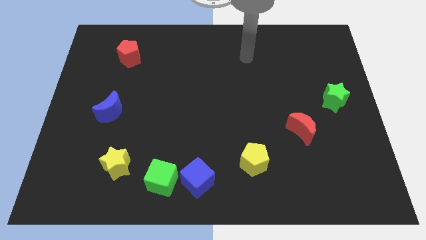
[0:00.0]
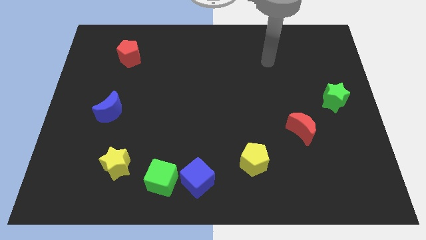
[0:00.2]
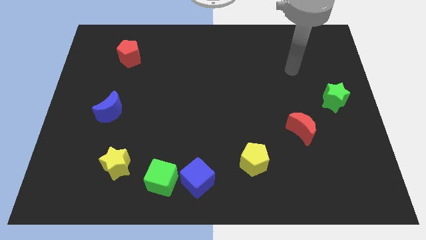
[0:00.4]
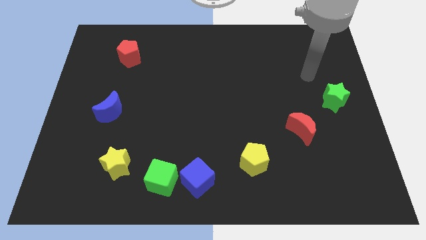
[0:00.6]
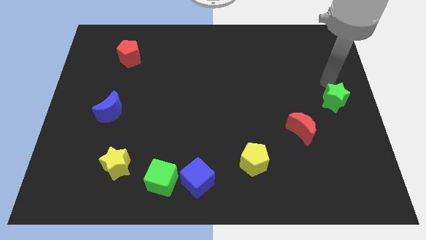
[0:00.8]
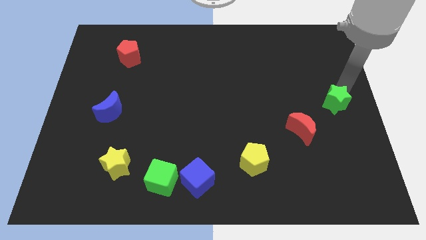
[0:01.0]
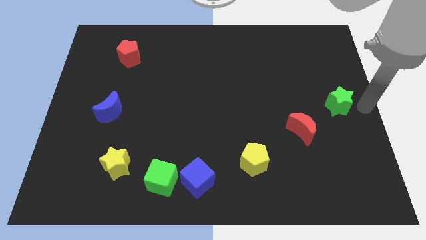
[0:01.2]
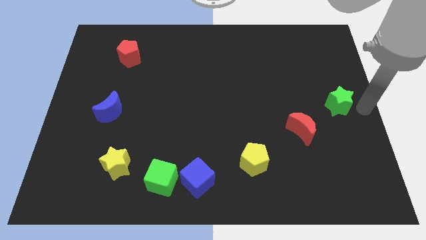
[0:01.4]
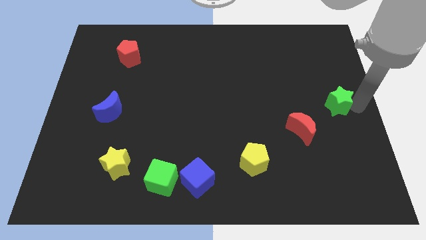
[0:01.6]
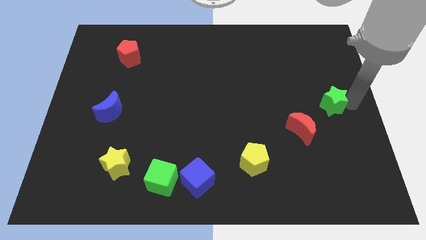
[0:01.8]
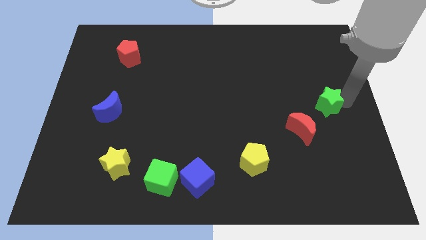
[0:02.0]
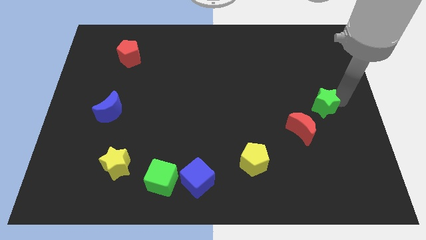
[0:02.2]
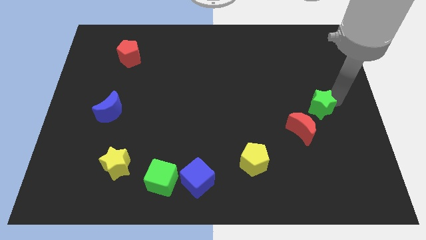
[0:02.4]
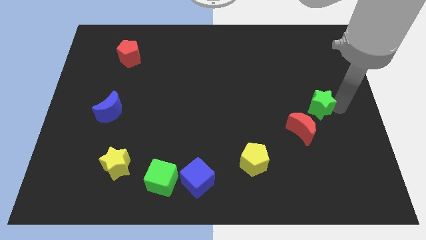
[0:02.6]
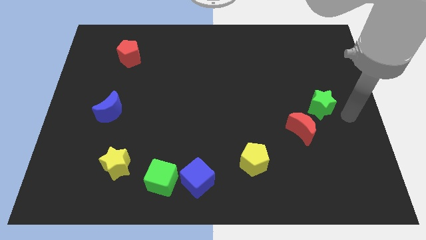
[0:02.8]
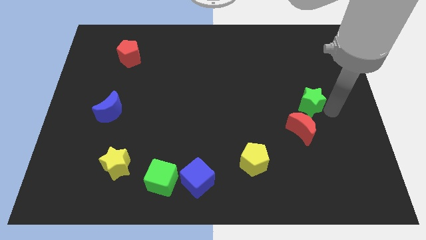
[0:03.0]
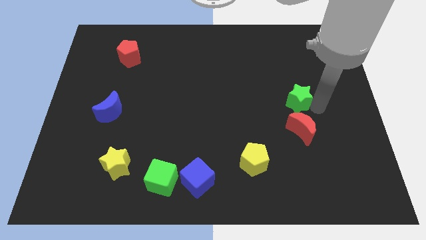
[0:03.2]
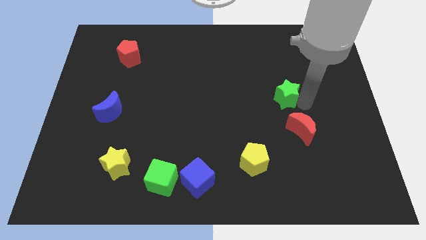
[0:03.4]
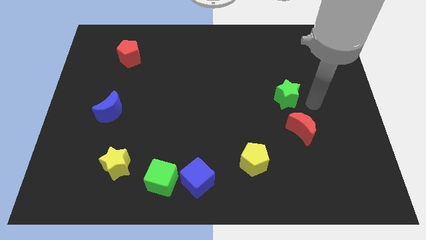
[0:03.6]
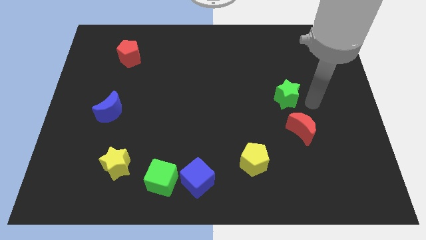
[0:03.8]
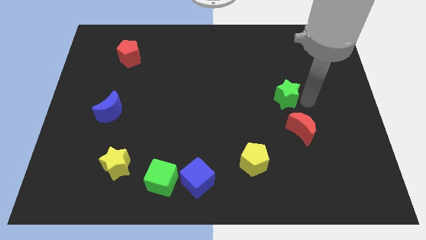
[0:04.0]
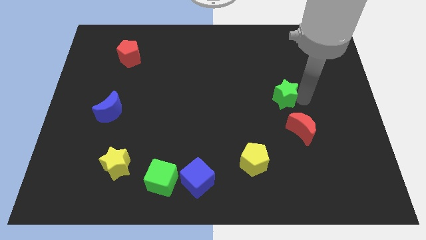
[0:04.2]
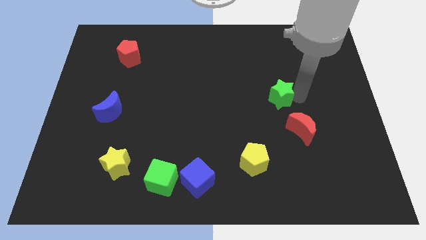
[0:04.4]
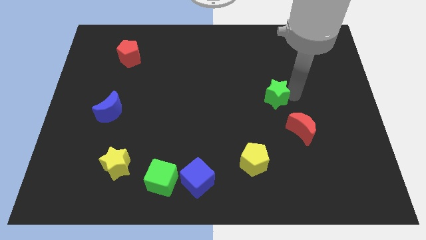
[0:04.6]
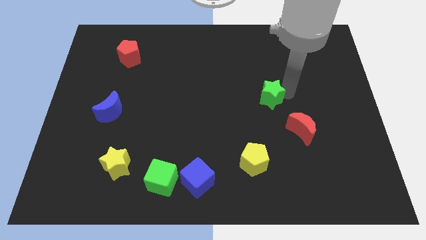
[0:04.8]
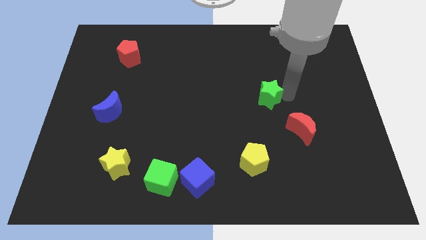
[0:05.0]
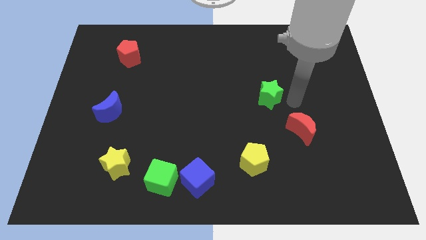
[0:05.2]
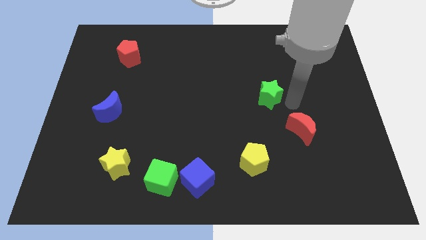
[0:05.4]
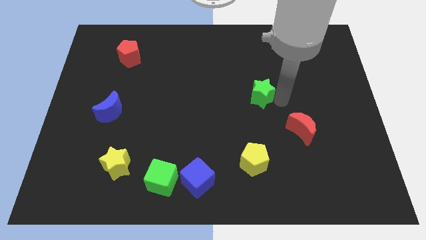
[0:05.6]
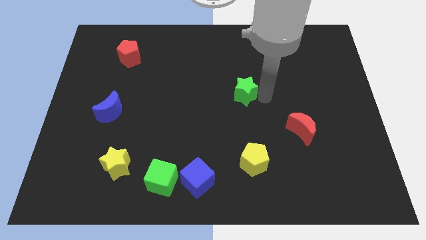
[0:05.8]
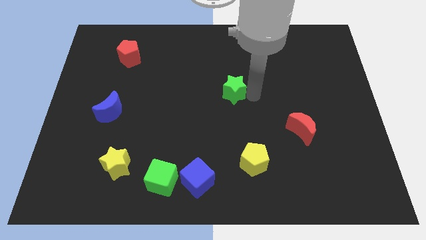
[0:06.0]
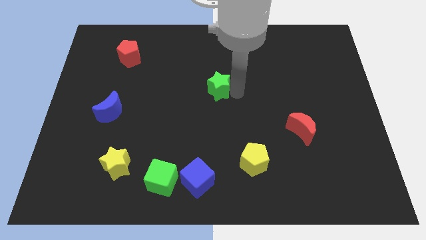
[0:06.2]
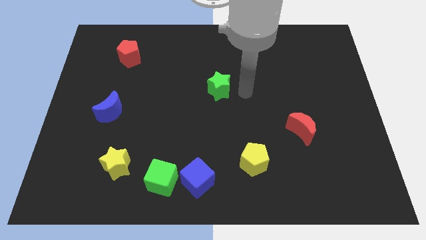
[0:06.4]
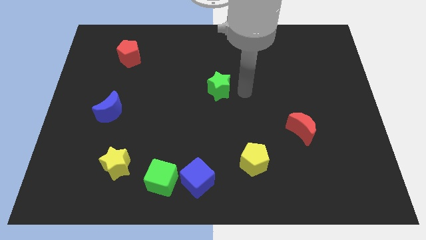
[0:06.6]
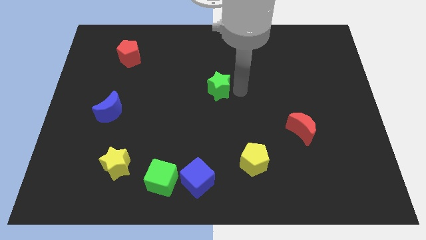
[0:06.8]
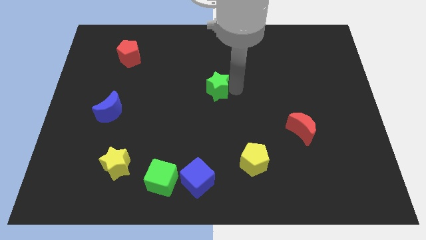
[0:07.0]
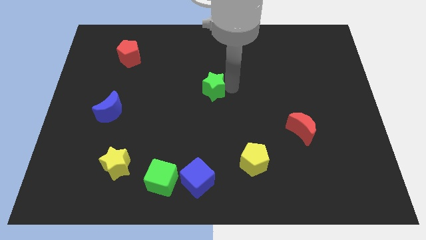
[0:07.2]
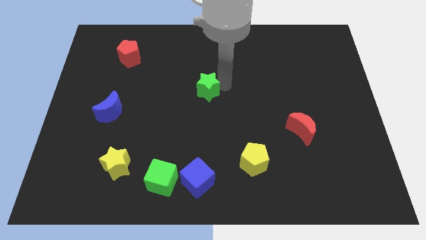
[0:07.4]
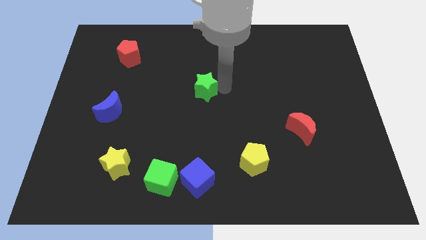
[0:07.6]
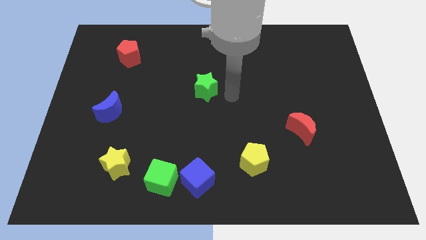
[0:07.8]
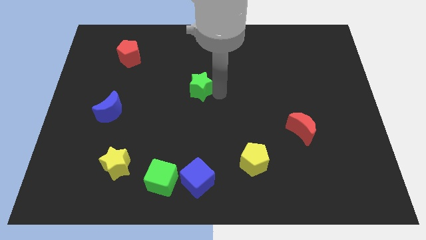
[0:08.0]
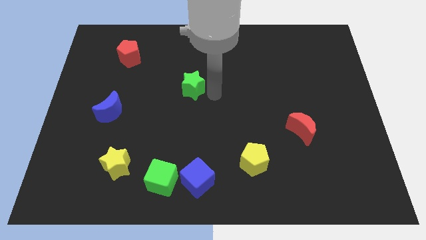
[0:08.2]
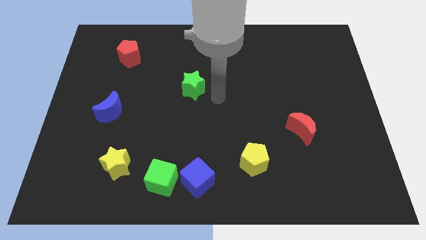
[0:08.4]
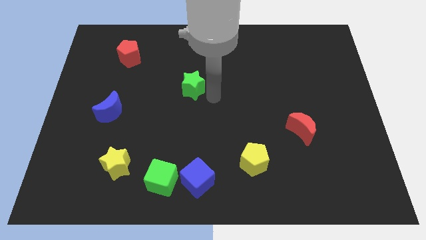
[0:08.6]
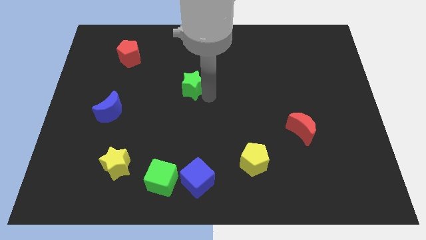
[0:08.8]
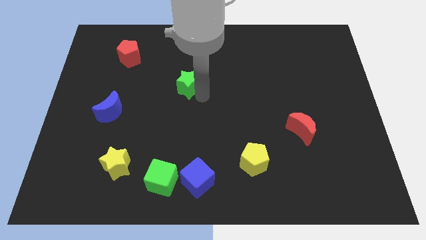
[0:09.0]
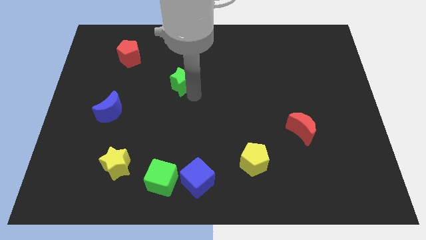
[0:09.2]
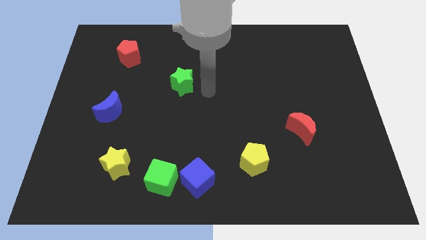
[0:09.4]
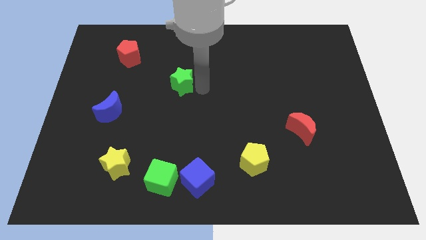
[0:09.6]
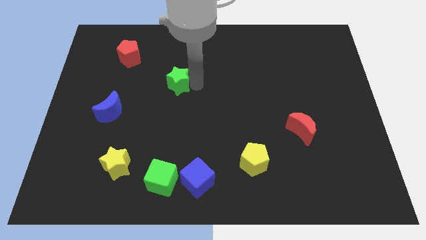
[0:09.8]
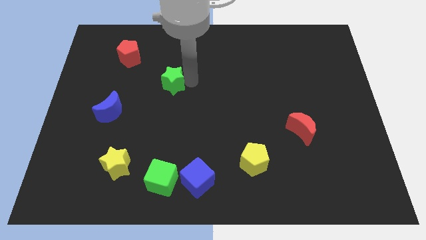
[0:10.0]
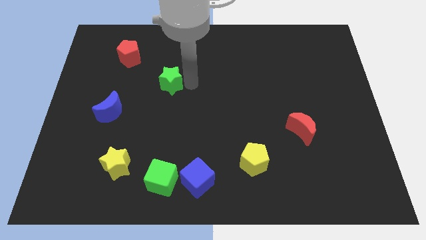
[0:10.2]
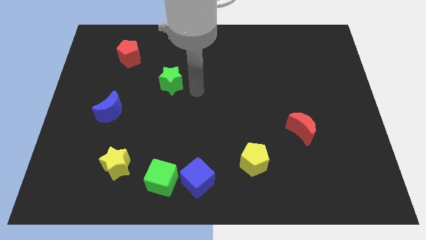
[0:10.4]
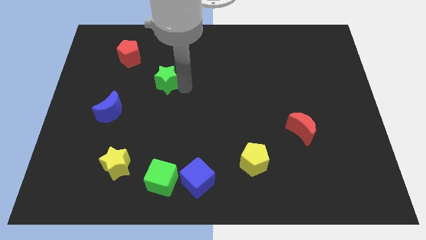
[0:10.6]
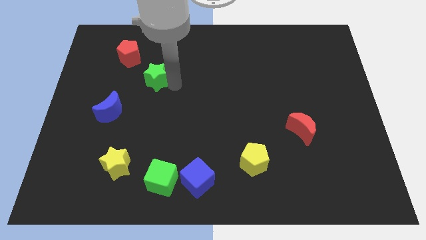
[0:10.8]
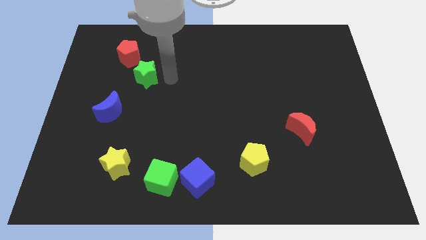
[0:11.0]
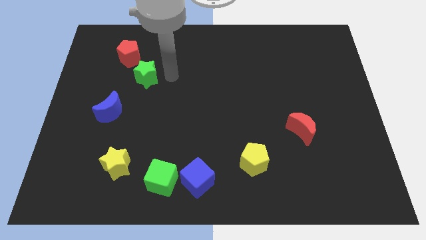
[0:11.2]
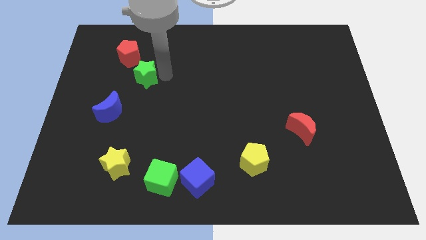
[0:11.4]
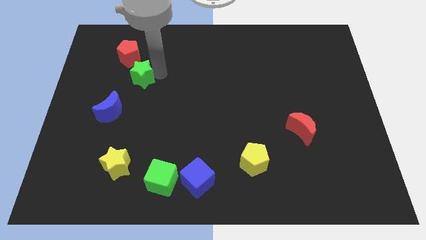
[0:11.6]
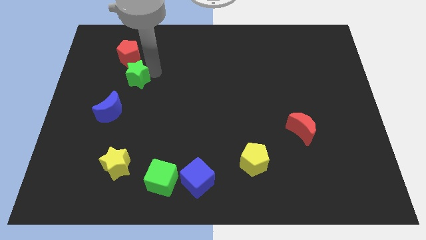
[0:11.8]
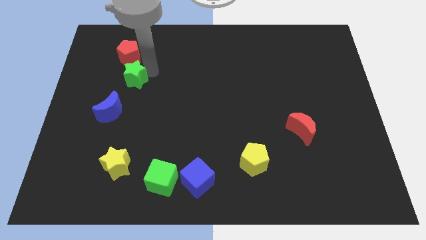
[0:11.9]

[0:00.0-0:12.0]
put the green star to the top side of the blue moon

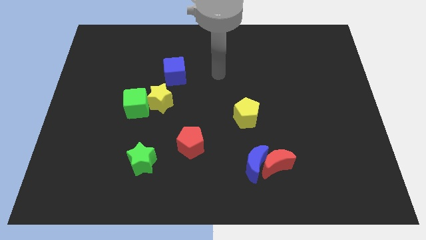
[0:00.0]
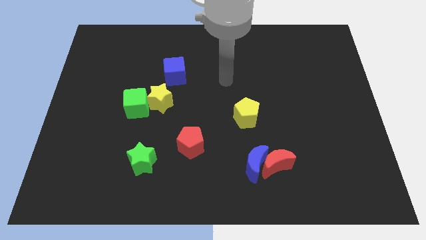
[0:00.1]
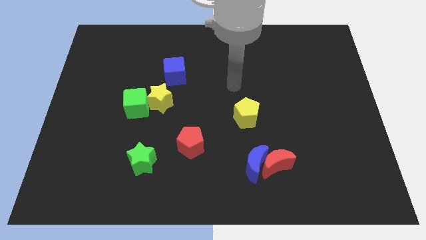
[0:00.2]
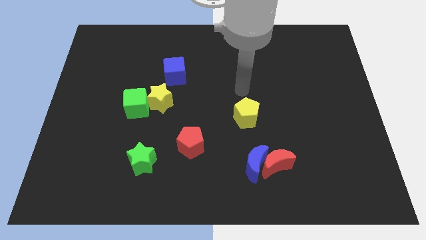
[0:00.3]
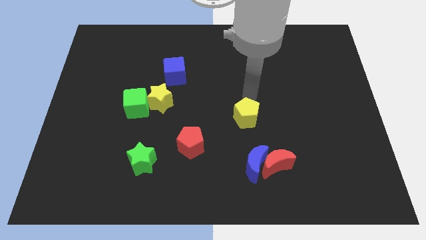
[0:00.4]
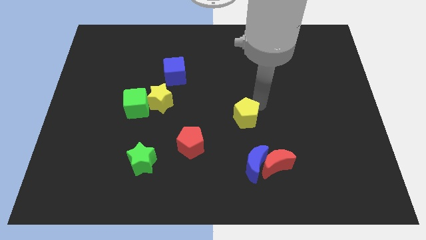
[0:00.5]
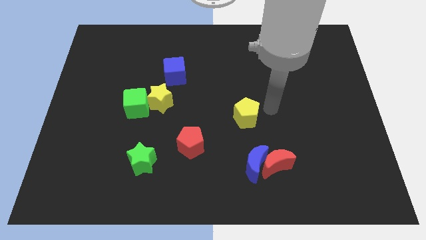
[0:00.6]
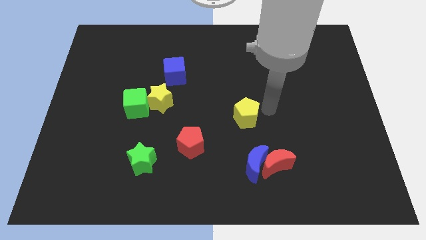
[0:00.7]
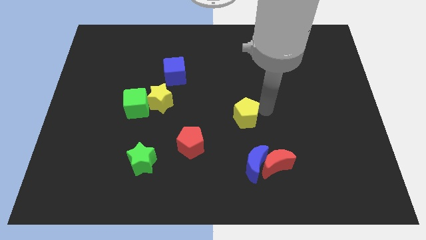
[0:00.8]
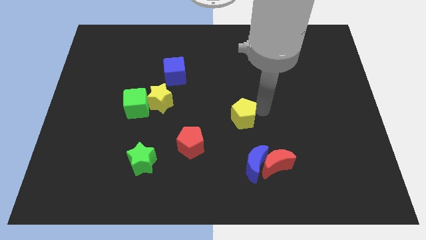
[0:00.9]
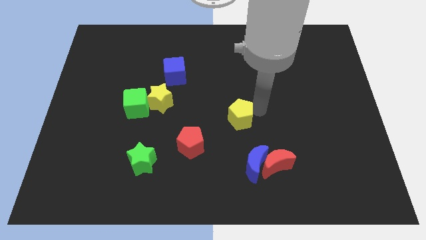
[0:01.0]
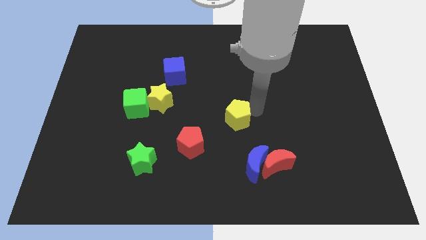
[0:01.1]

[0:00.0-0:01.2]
slide the yellow pentagon to the top right side of the red pentagon
